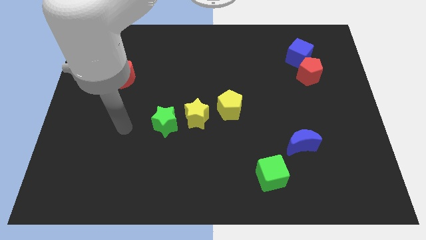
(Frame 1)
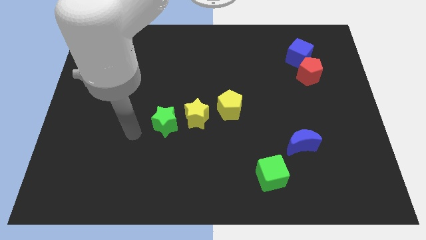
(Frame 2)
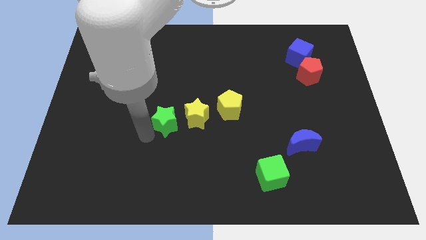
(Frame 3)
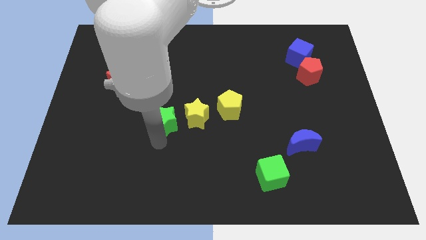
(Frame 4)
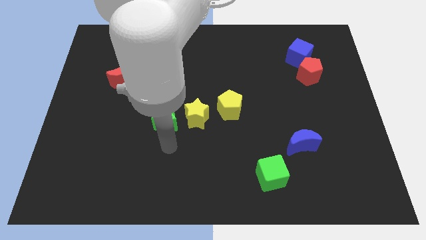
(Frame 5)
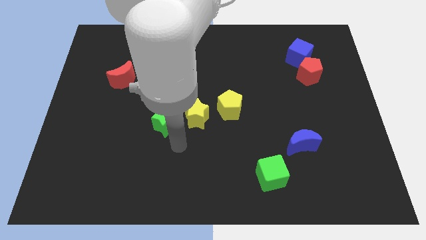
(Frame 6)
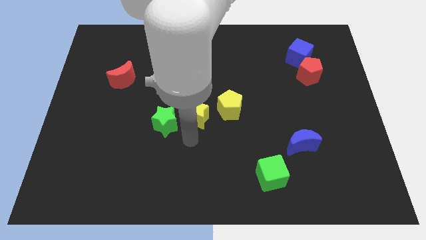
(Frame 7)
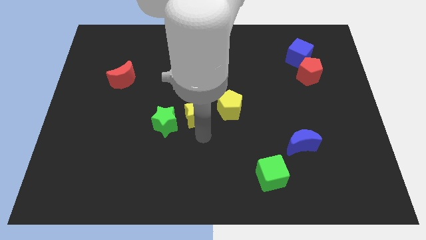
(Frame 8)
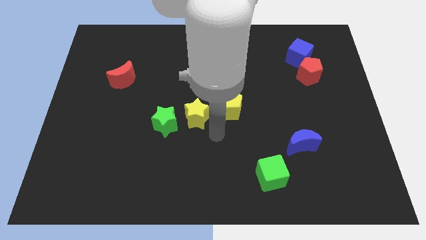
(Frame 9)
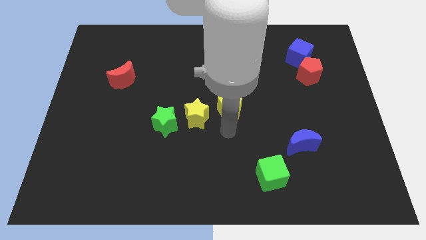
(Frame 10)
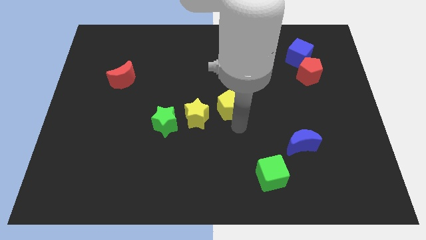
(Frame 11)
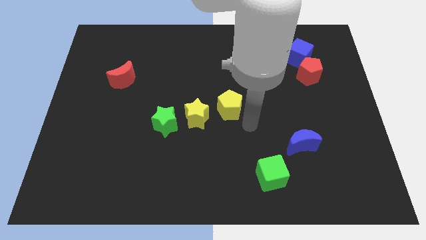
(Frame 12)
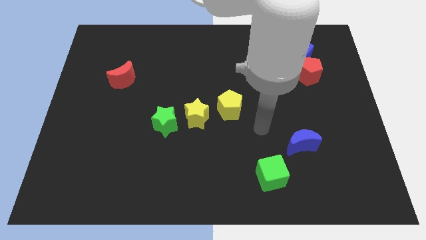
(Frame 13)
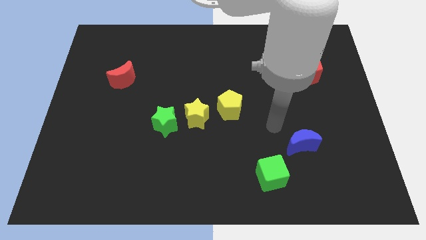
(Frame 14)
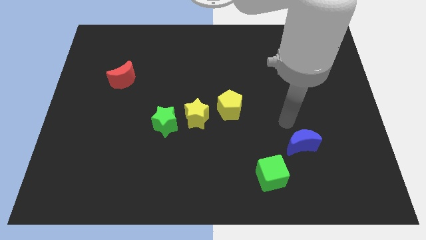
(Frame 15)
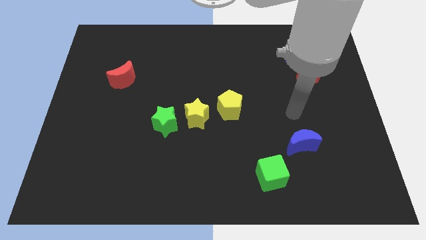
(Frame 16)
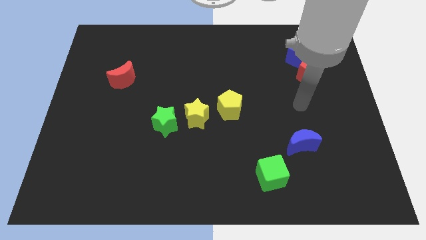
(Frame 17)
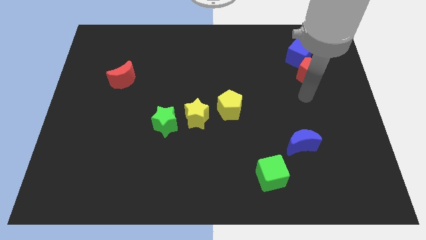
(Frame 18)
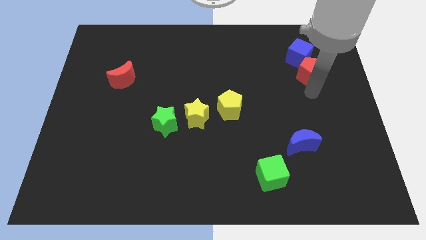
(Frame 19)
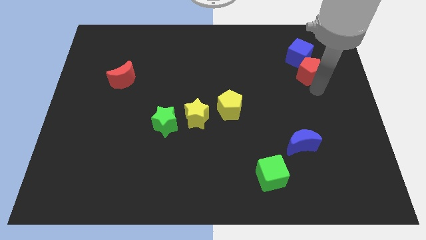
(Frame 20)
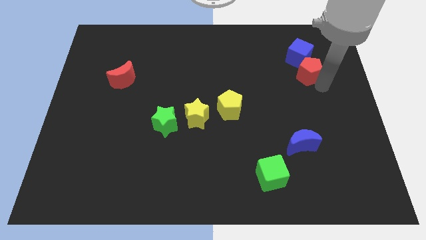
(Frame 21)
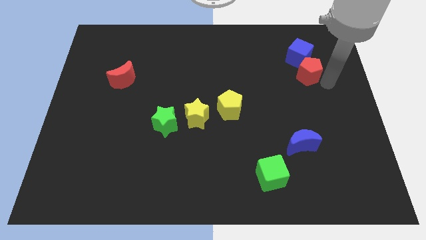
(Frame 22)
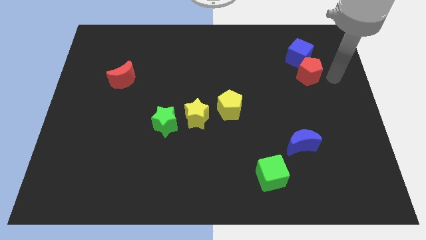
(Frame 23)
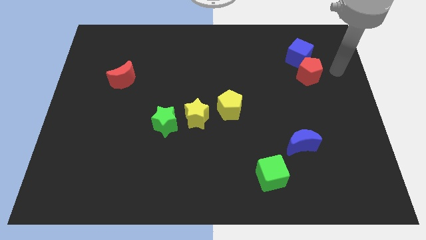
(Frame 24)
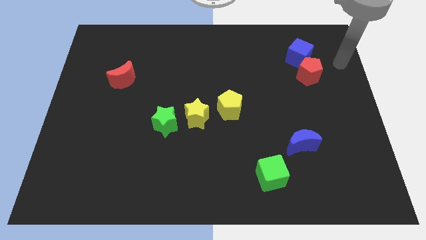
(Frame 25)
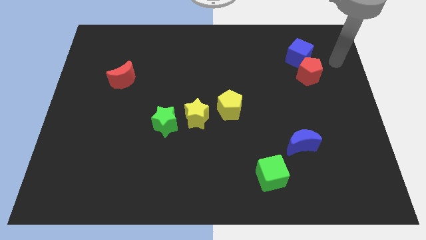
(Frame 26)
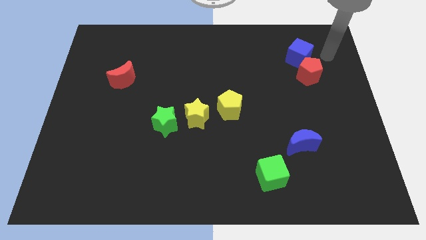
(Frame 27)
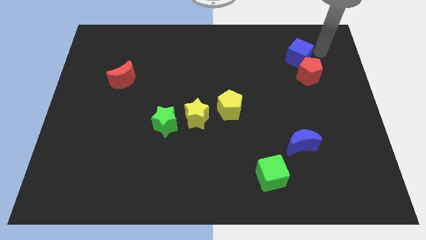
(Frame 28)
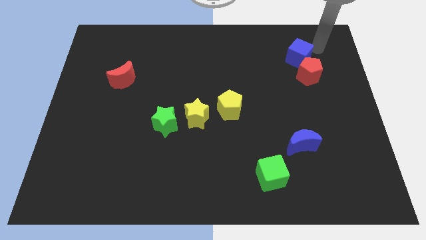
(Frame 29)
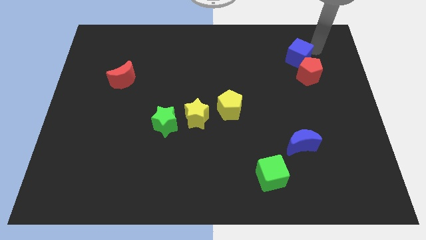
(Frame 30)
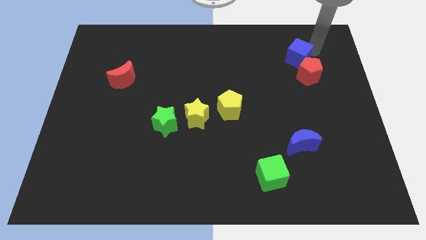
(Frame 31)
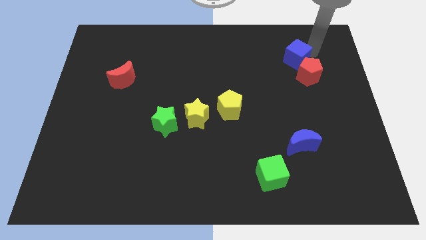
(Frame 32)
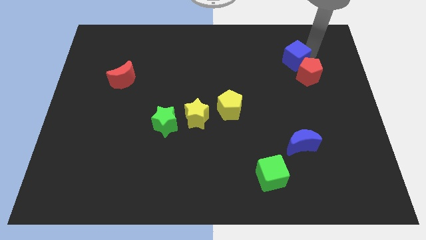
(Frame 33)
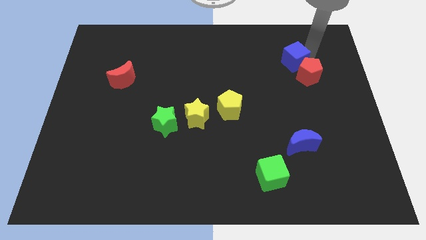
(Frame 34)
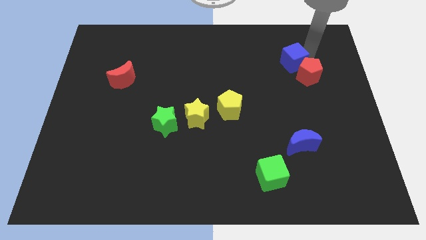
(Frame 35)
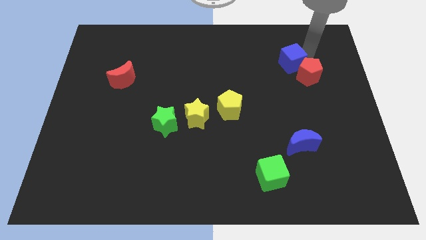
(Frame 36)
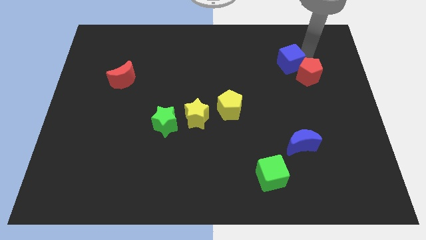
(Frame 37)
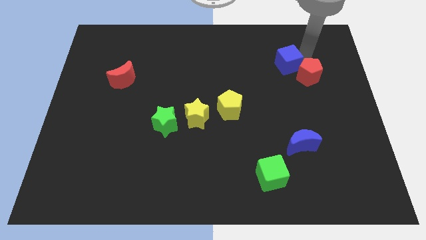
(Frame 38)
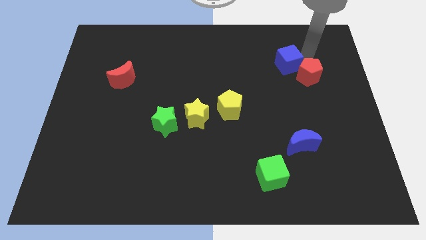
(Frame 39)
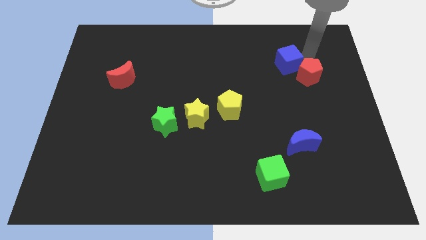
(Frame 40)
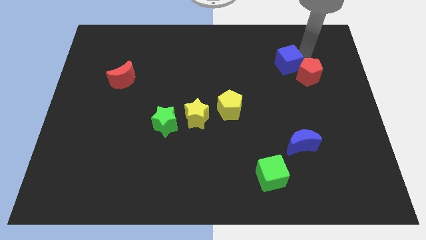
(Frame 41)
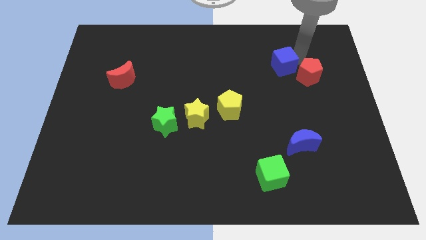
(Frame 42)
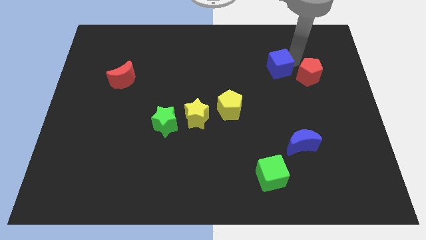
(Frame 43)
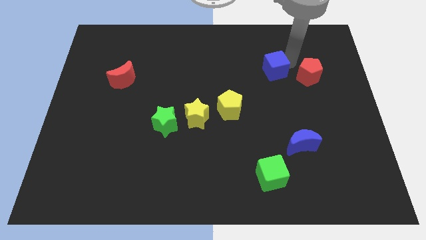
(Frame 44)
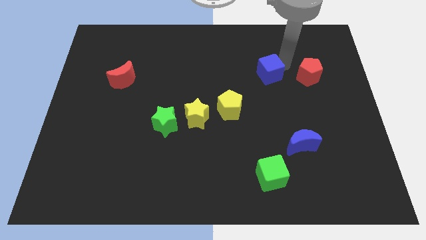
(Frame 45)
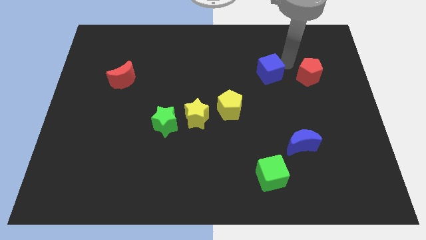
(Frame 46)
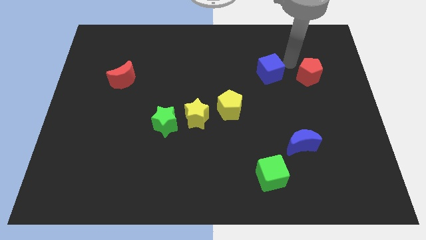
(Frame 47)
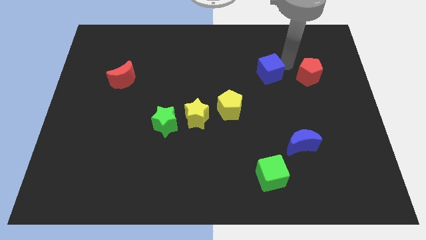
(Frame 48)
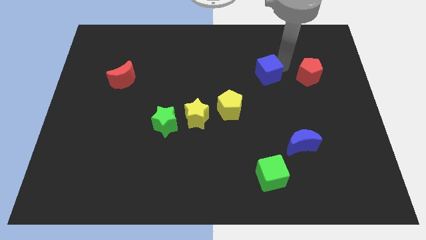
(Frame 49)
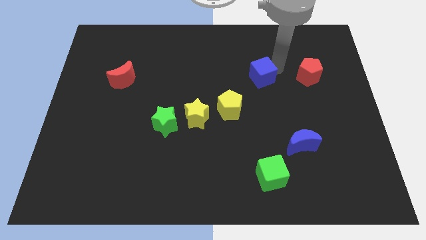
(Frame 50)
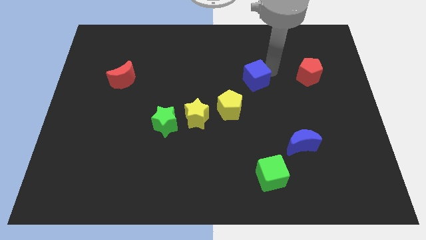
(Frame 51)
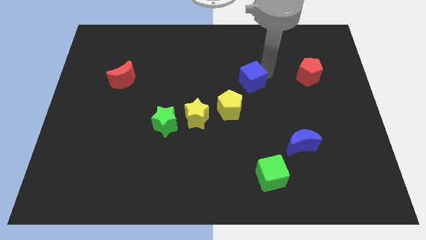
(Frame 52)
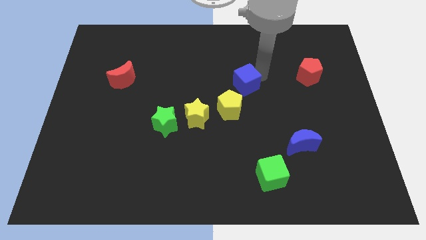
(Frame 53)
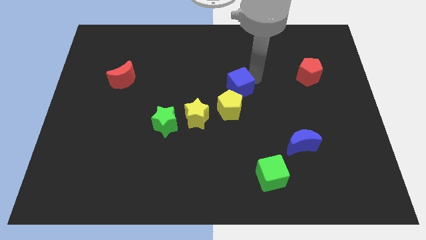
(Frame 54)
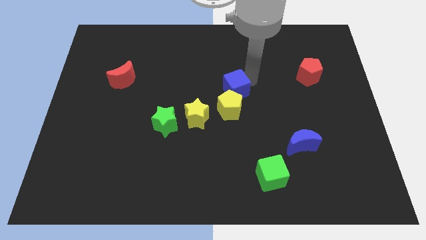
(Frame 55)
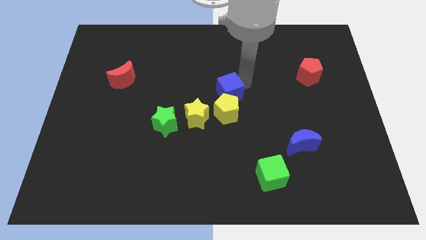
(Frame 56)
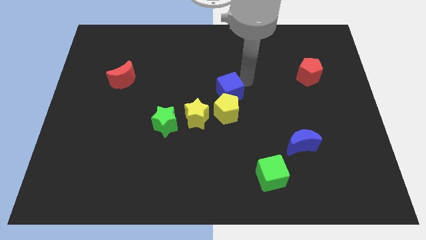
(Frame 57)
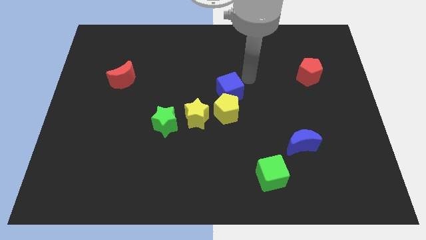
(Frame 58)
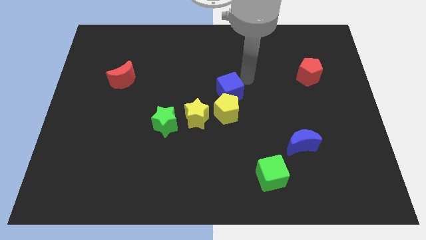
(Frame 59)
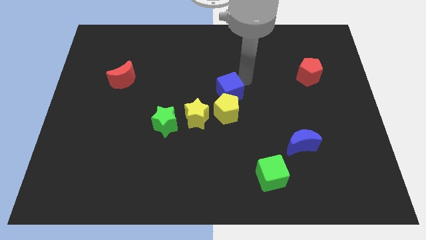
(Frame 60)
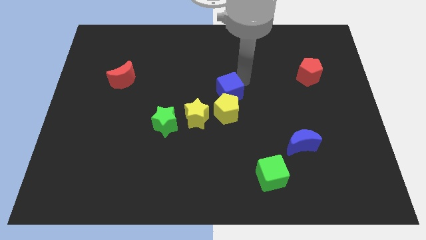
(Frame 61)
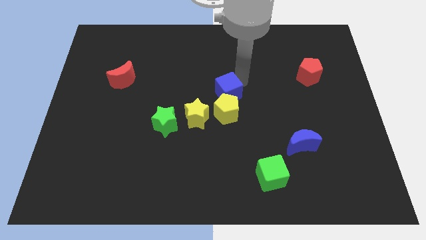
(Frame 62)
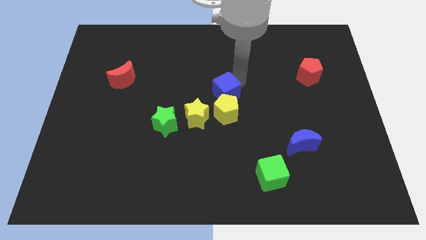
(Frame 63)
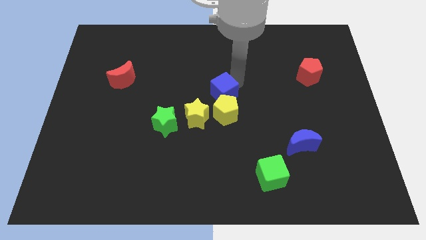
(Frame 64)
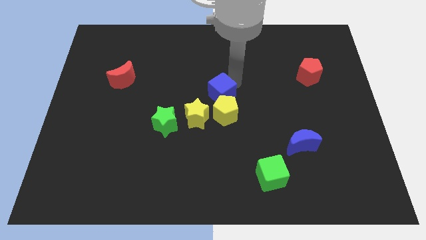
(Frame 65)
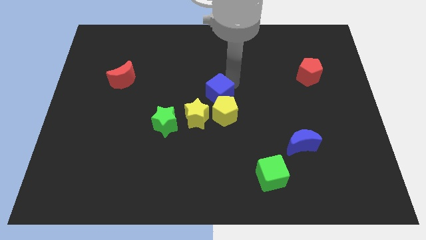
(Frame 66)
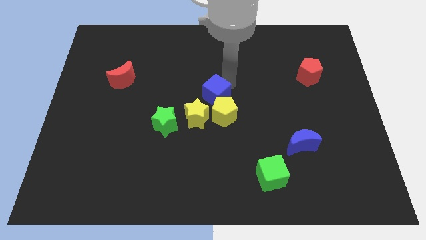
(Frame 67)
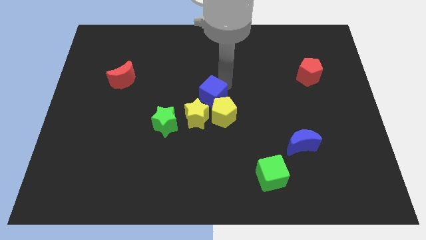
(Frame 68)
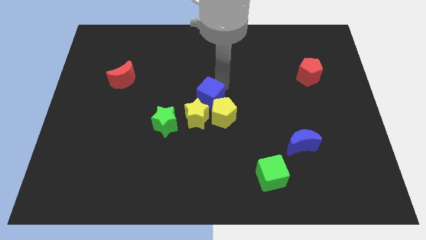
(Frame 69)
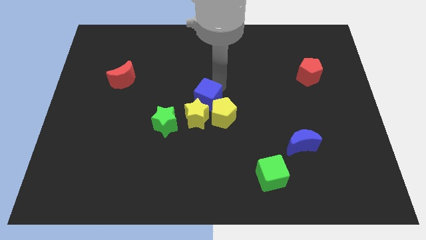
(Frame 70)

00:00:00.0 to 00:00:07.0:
put the blue cube towards the yellow star
